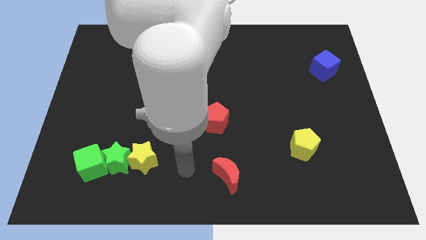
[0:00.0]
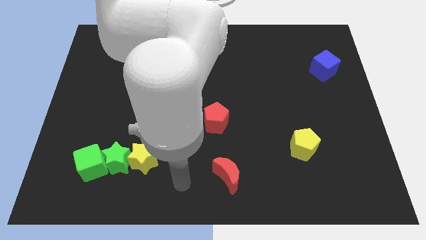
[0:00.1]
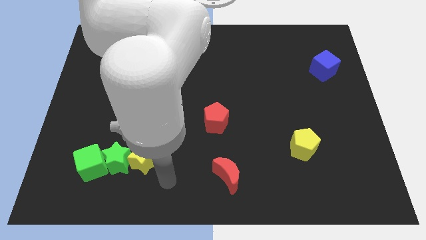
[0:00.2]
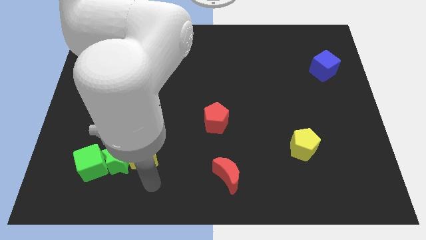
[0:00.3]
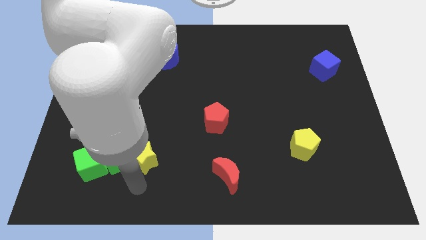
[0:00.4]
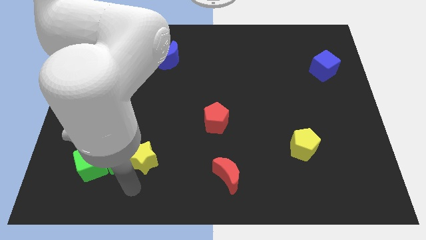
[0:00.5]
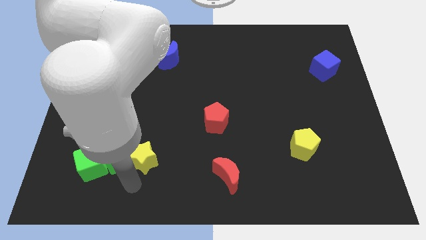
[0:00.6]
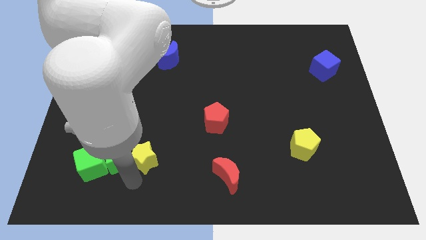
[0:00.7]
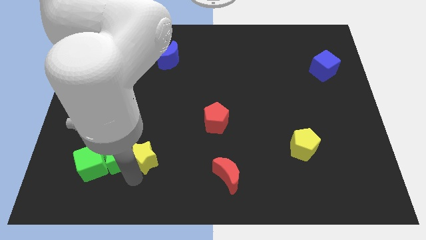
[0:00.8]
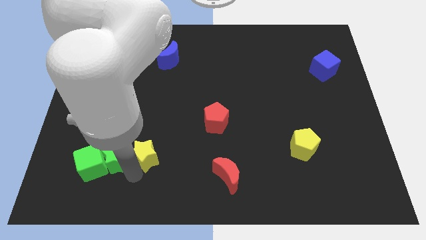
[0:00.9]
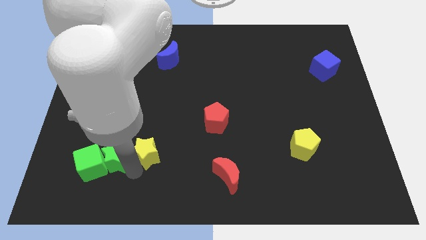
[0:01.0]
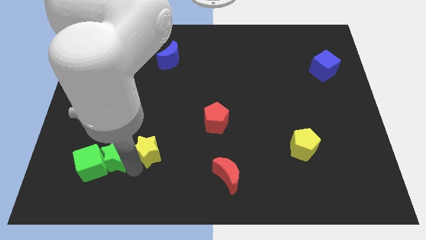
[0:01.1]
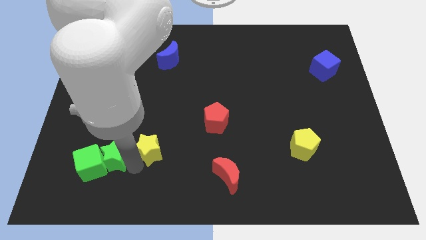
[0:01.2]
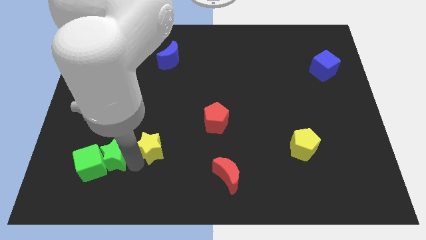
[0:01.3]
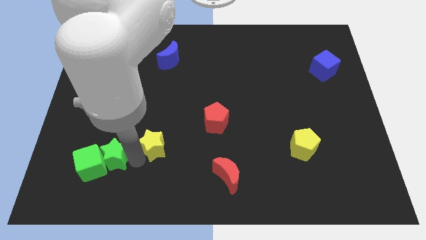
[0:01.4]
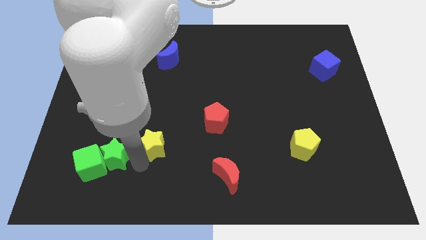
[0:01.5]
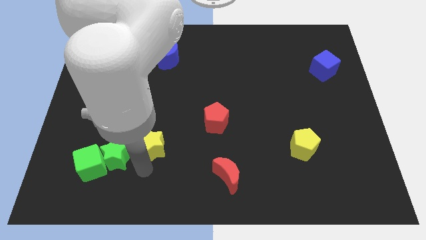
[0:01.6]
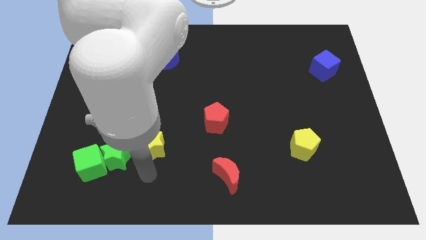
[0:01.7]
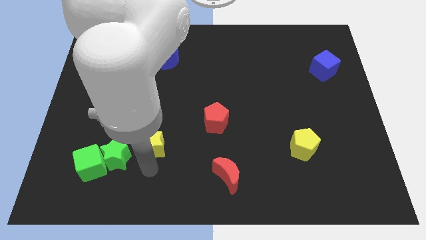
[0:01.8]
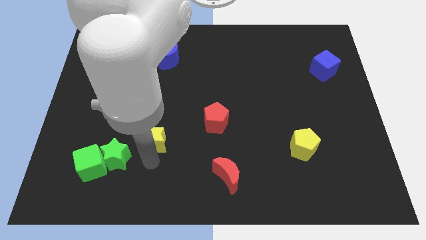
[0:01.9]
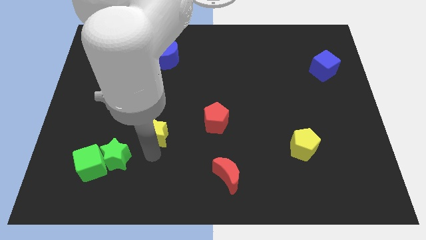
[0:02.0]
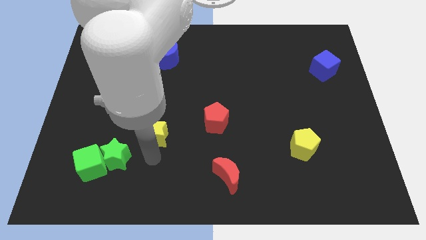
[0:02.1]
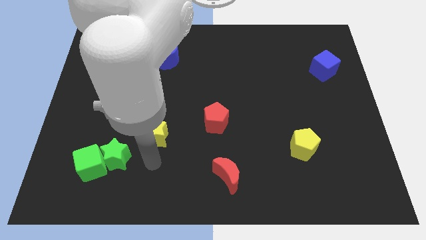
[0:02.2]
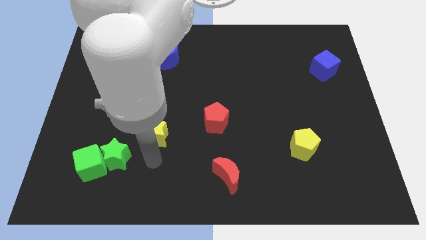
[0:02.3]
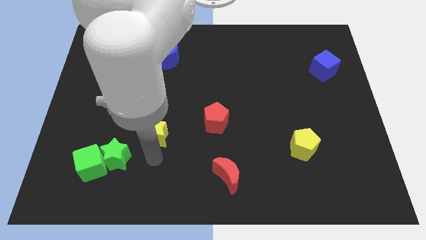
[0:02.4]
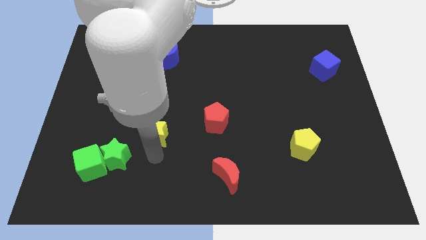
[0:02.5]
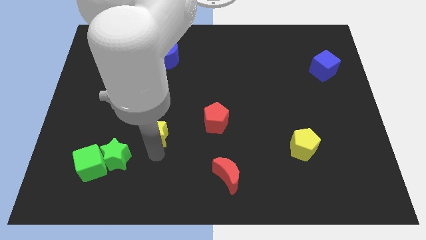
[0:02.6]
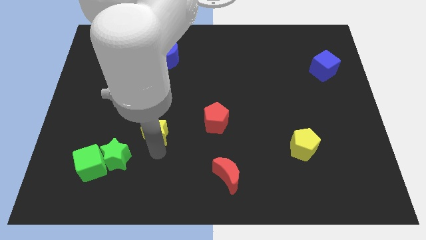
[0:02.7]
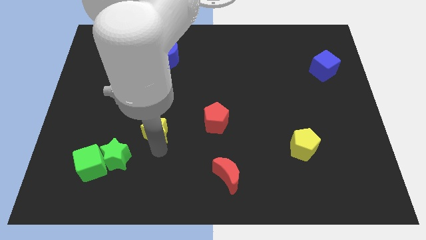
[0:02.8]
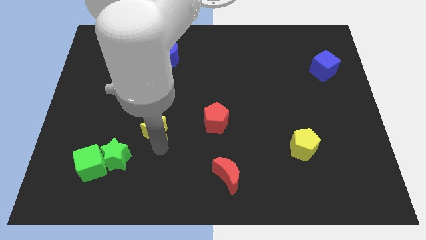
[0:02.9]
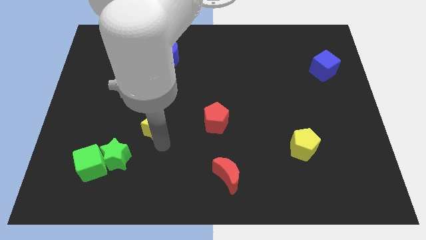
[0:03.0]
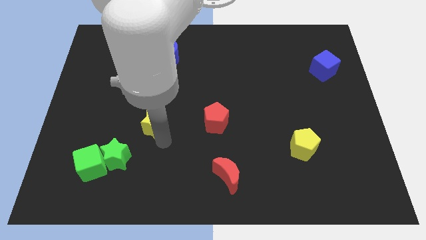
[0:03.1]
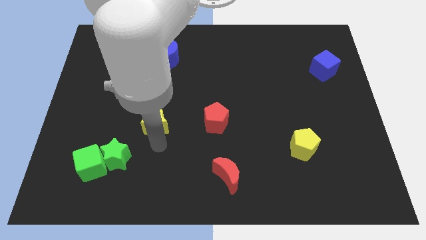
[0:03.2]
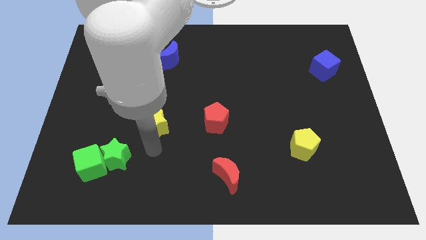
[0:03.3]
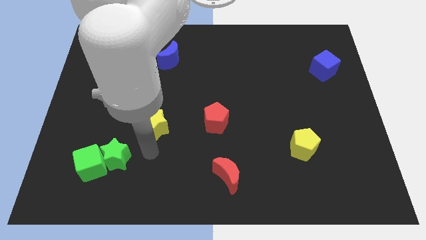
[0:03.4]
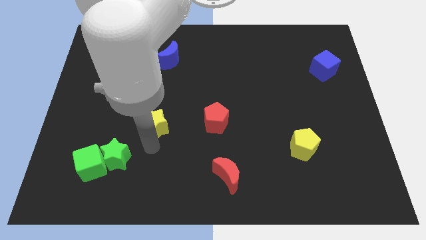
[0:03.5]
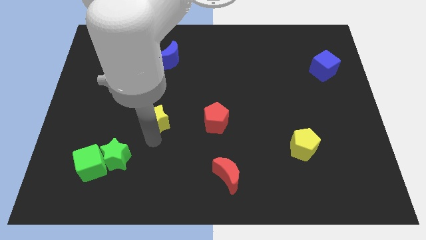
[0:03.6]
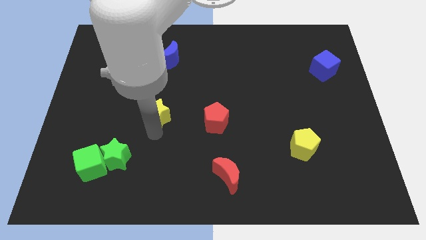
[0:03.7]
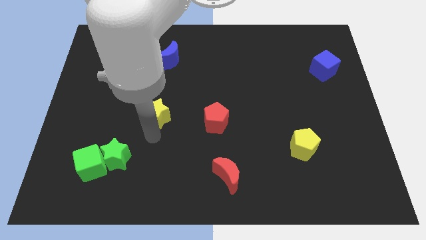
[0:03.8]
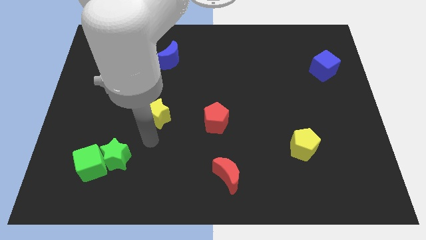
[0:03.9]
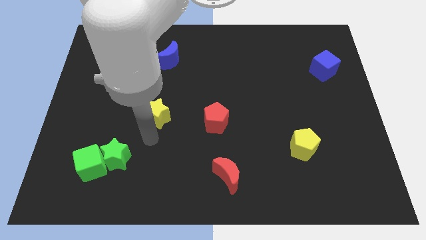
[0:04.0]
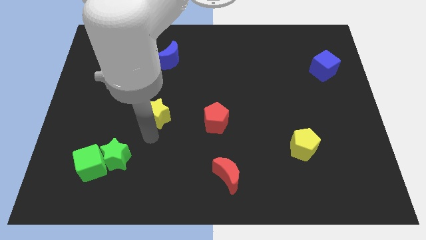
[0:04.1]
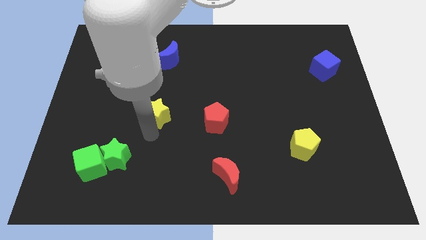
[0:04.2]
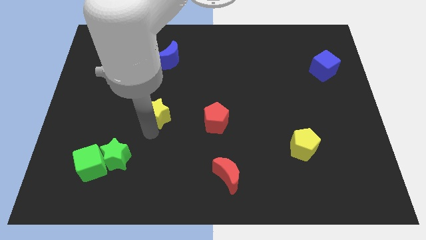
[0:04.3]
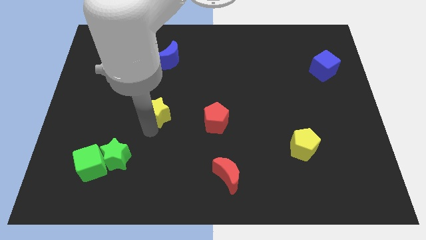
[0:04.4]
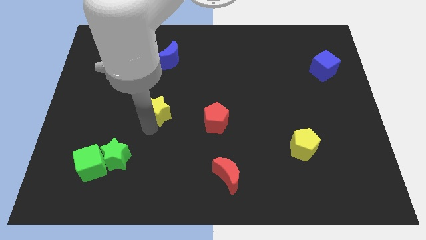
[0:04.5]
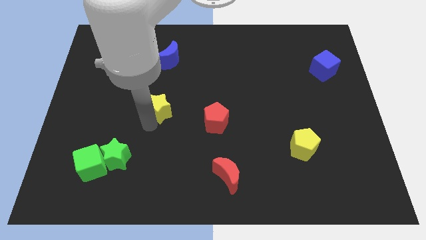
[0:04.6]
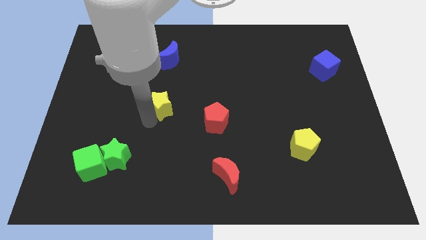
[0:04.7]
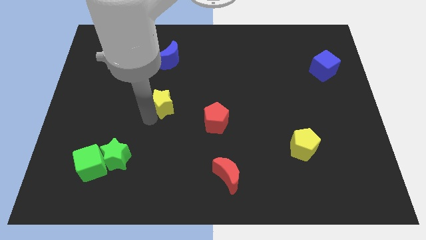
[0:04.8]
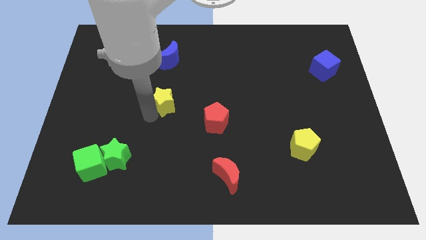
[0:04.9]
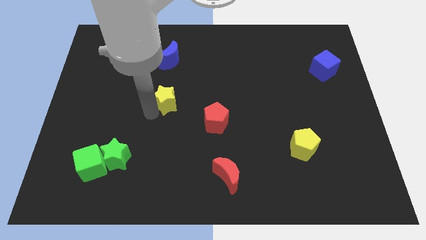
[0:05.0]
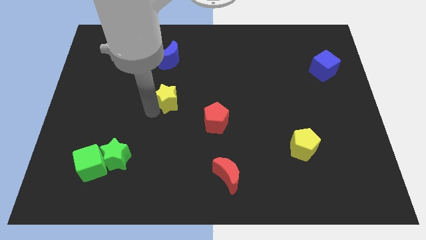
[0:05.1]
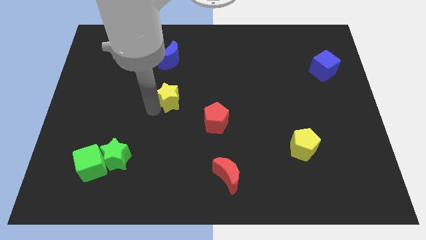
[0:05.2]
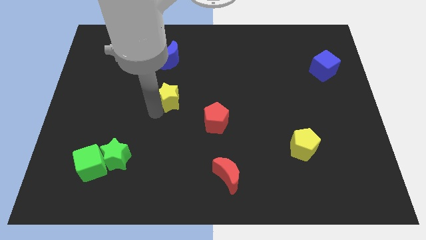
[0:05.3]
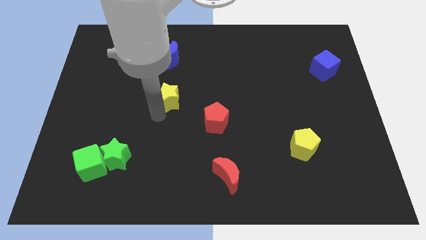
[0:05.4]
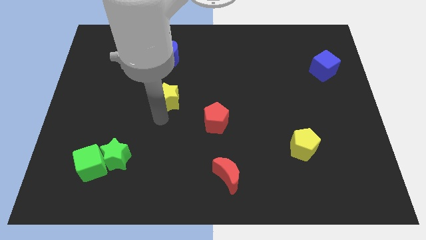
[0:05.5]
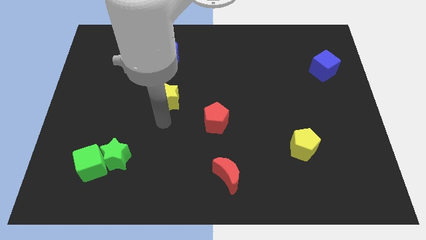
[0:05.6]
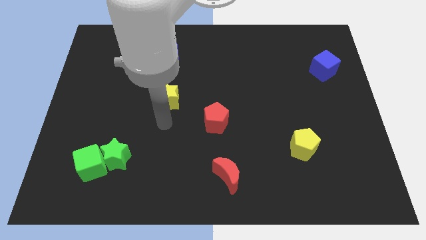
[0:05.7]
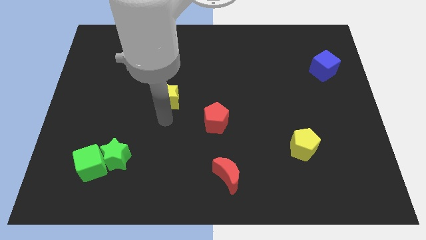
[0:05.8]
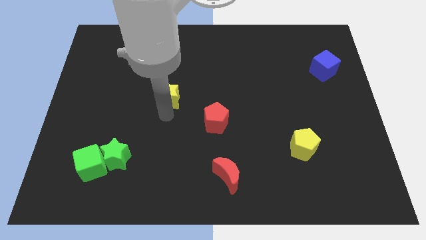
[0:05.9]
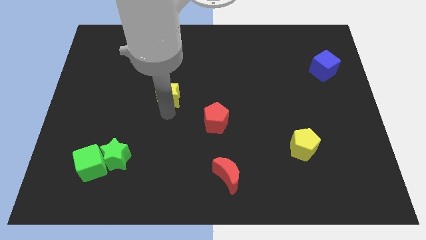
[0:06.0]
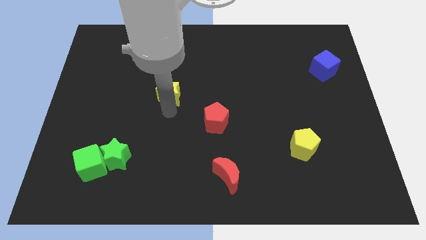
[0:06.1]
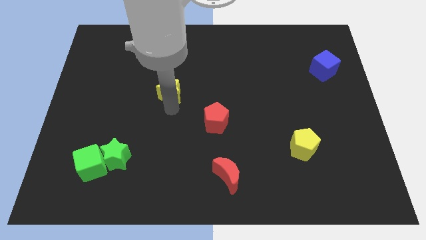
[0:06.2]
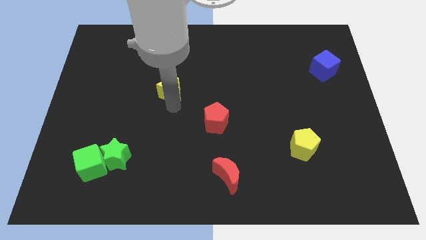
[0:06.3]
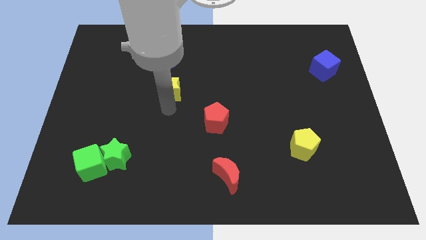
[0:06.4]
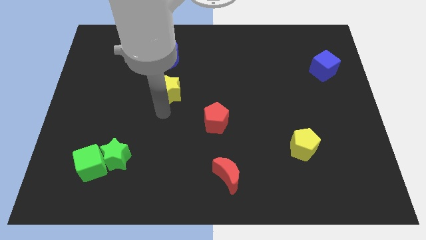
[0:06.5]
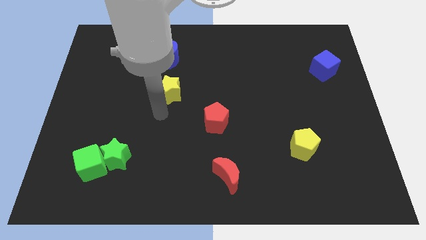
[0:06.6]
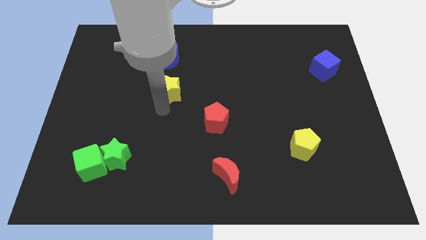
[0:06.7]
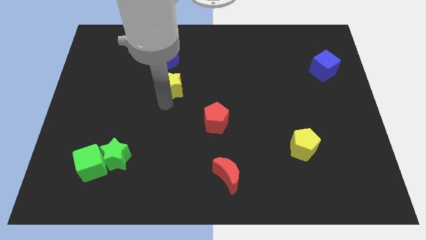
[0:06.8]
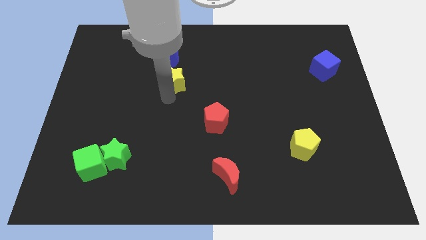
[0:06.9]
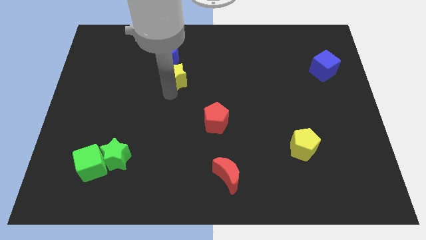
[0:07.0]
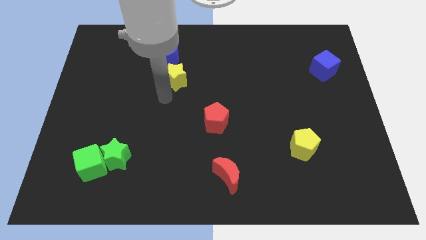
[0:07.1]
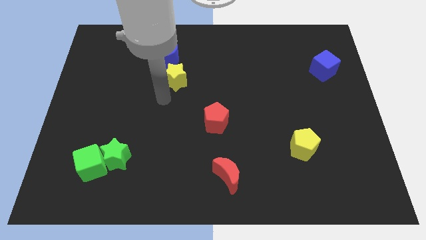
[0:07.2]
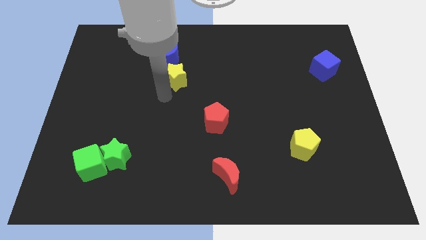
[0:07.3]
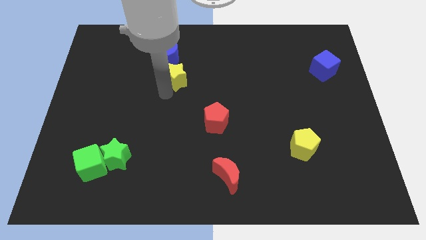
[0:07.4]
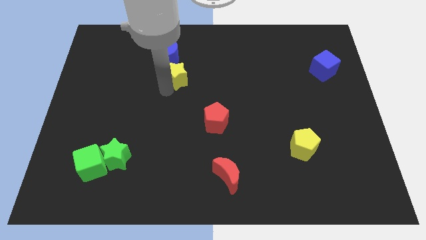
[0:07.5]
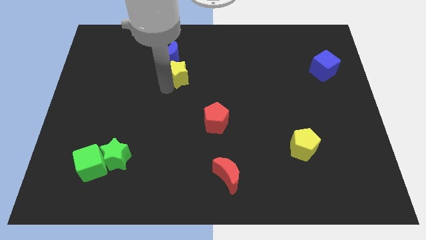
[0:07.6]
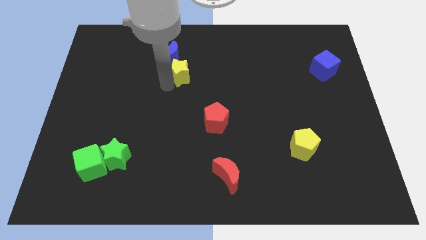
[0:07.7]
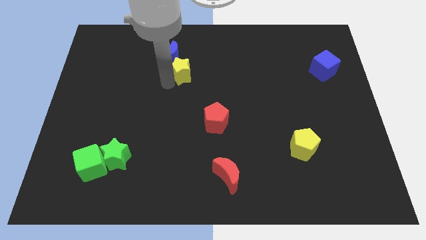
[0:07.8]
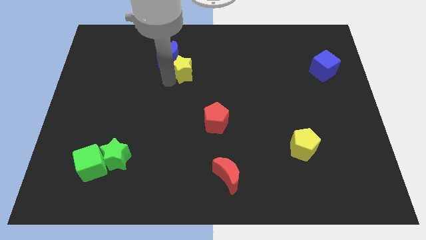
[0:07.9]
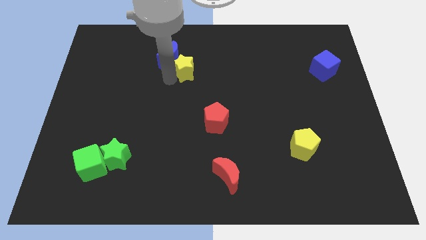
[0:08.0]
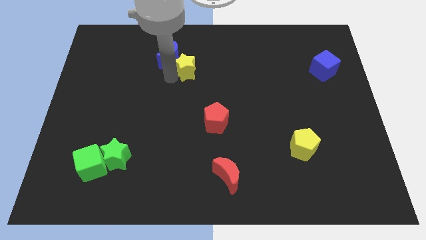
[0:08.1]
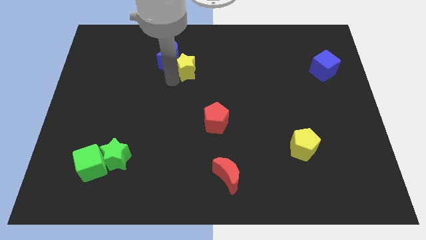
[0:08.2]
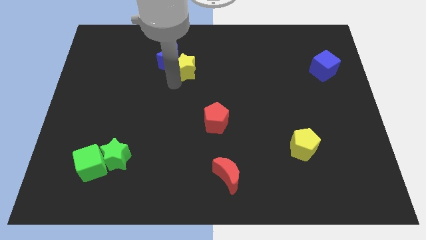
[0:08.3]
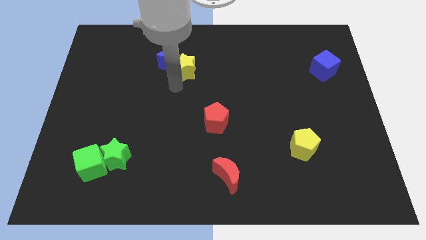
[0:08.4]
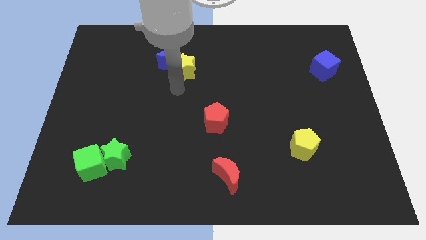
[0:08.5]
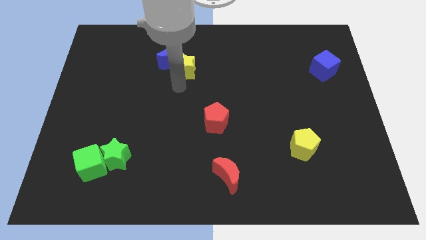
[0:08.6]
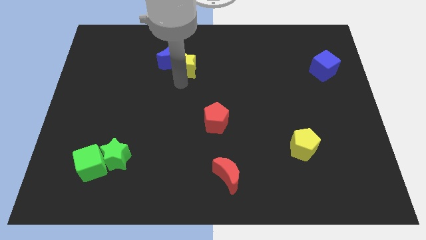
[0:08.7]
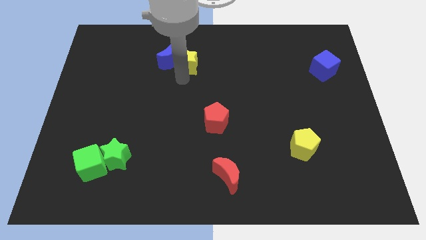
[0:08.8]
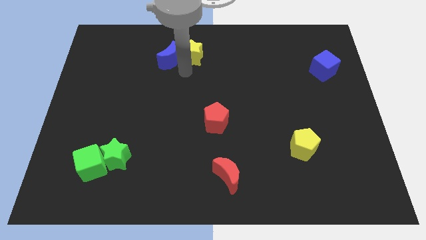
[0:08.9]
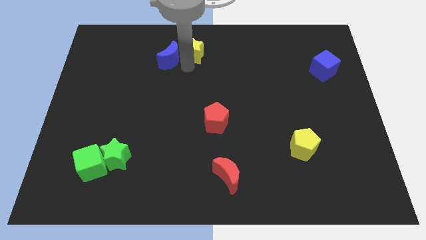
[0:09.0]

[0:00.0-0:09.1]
push the yellow star to the towards your base
